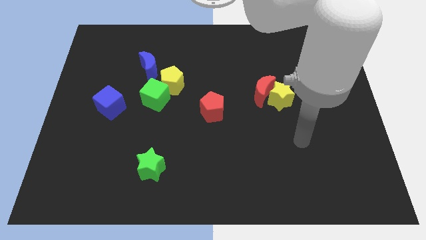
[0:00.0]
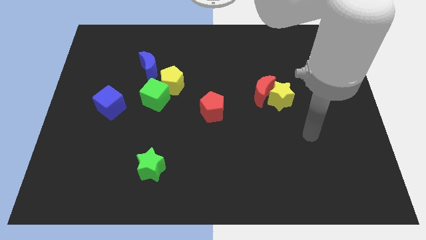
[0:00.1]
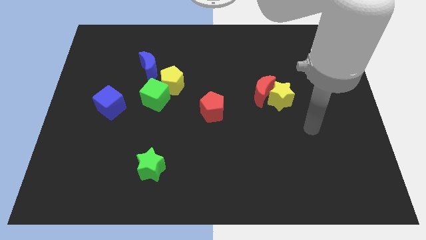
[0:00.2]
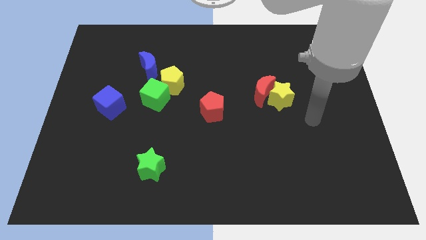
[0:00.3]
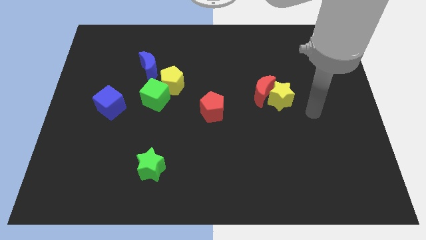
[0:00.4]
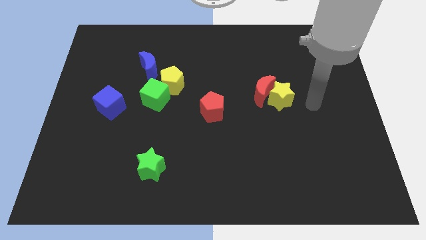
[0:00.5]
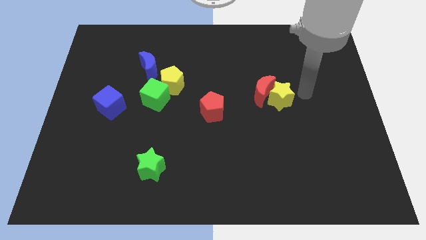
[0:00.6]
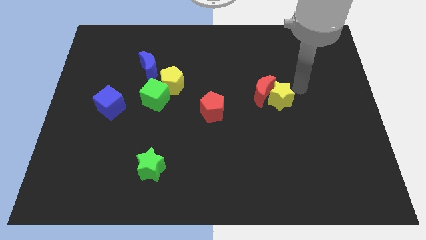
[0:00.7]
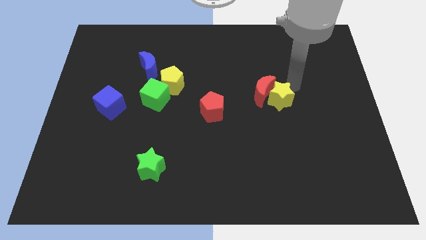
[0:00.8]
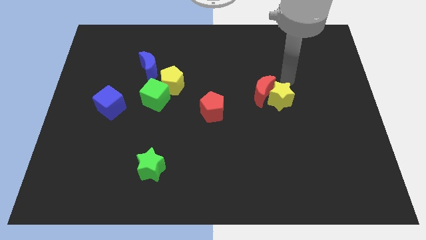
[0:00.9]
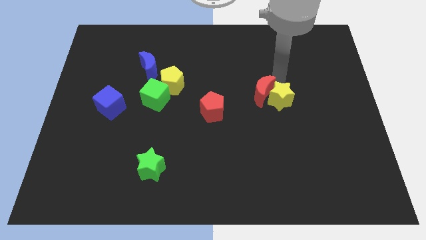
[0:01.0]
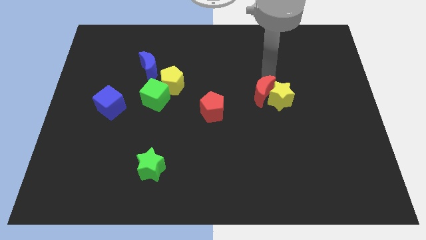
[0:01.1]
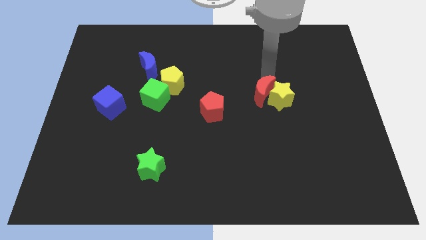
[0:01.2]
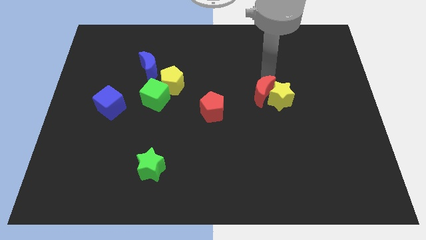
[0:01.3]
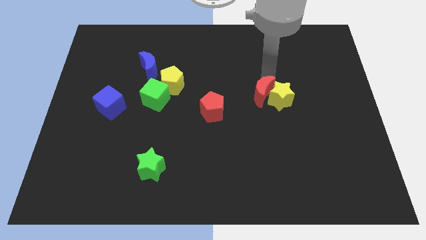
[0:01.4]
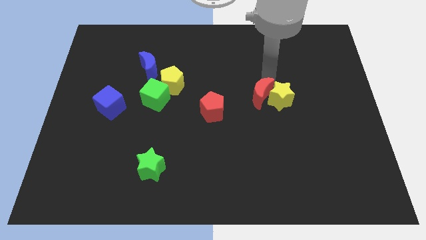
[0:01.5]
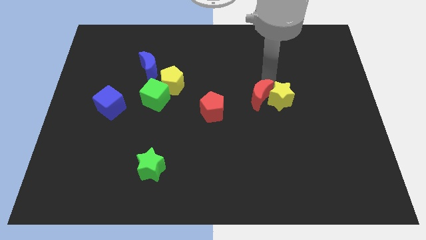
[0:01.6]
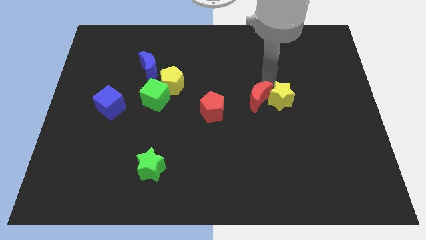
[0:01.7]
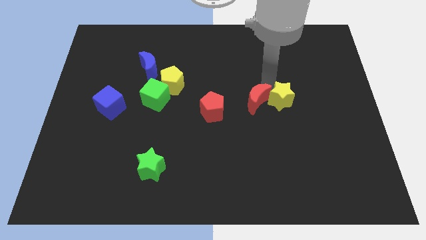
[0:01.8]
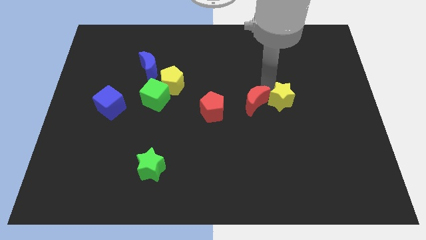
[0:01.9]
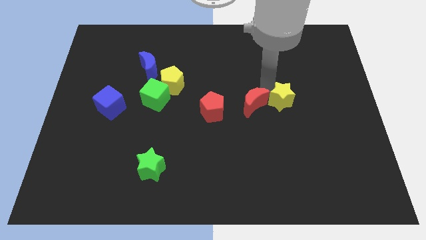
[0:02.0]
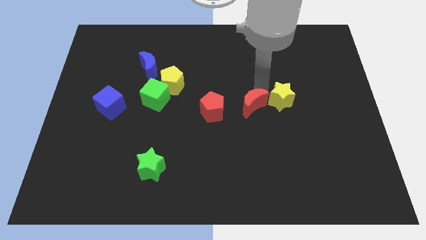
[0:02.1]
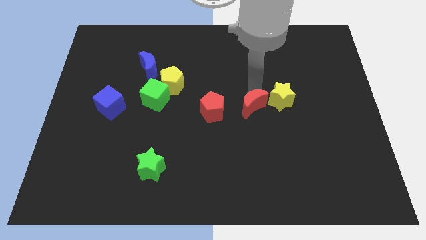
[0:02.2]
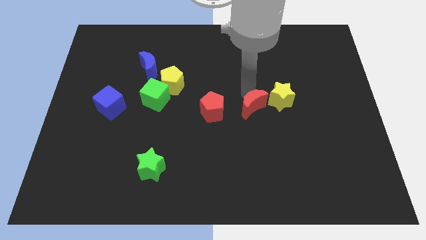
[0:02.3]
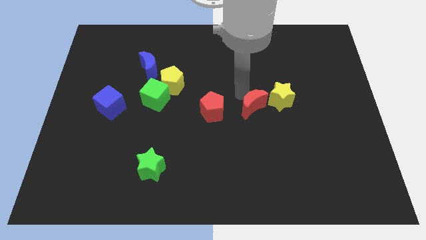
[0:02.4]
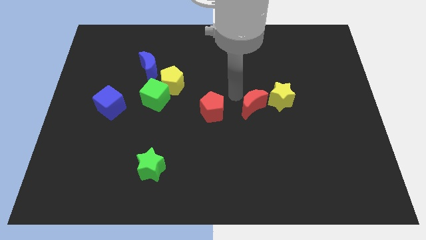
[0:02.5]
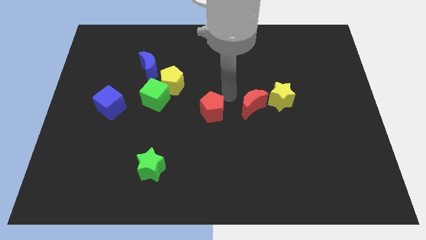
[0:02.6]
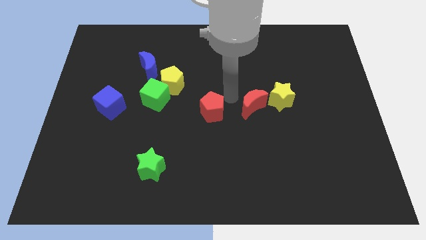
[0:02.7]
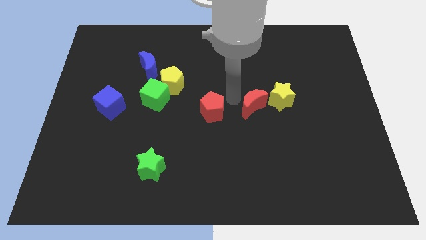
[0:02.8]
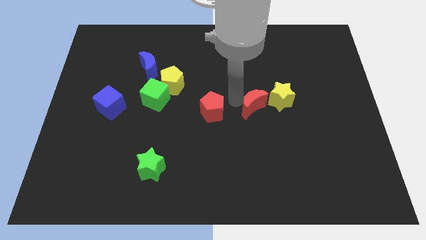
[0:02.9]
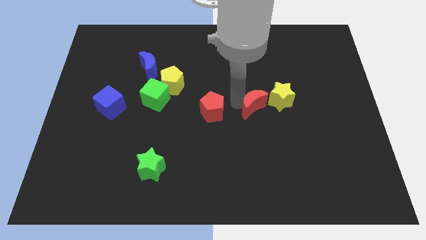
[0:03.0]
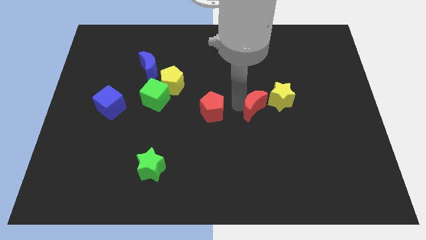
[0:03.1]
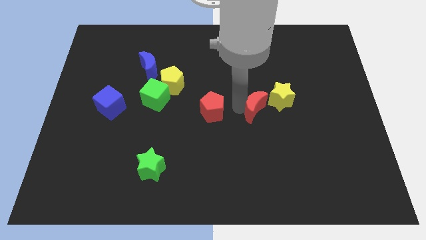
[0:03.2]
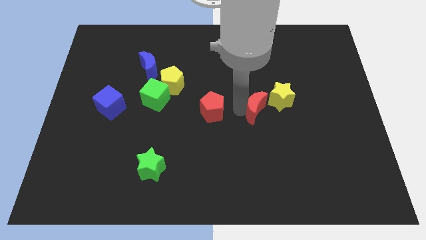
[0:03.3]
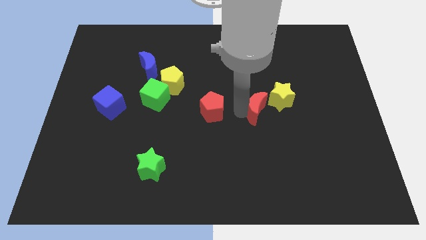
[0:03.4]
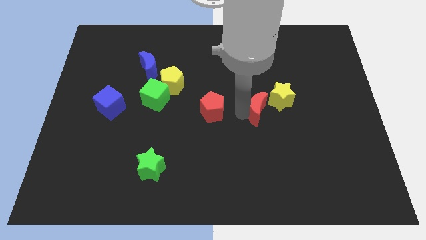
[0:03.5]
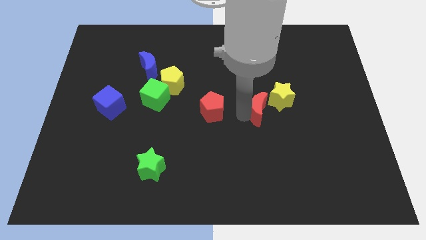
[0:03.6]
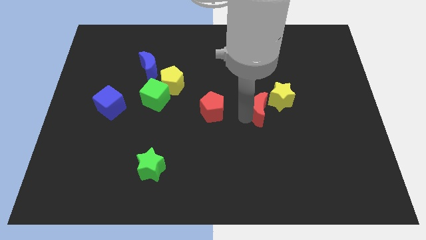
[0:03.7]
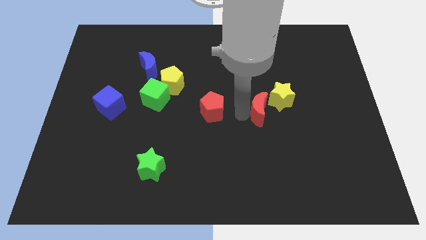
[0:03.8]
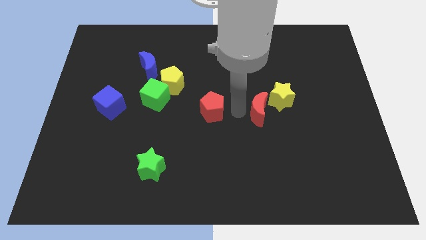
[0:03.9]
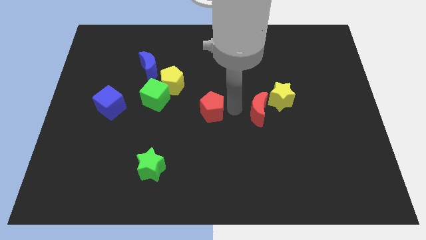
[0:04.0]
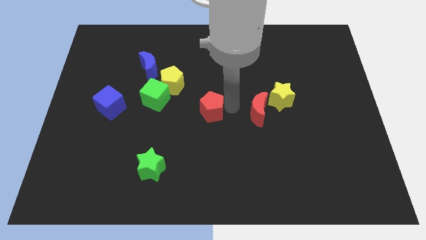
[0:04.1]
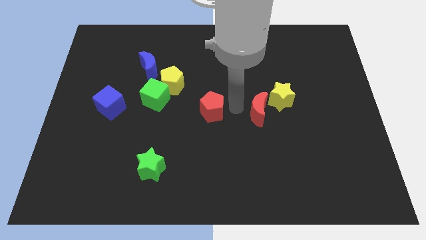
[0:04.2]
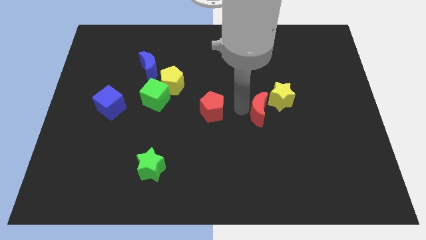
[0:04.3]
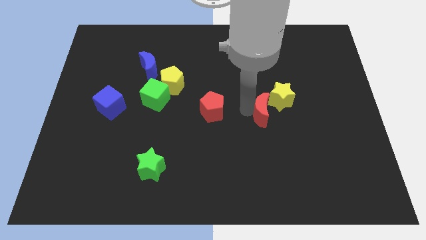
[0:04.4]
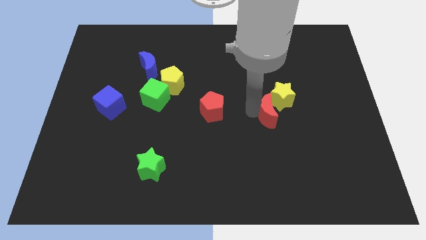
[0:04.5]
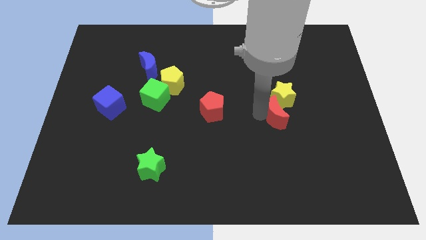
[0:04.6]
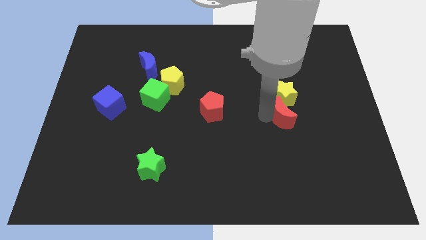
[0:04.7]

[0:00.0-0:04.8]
slightly move the red moon down and then to the right

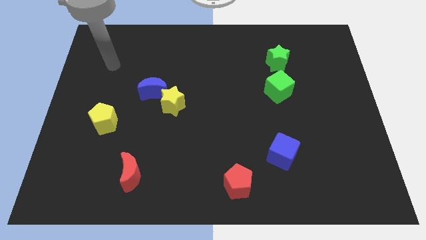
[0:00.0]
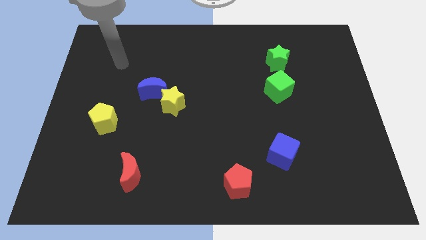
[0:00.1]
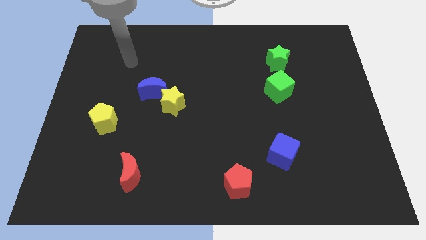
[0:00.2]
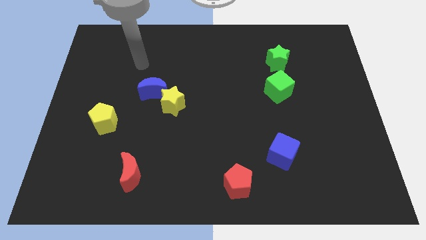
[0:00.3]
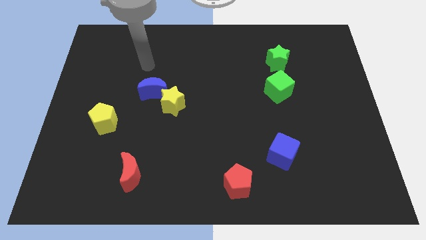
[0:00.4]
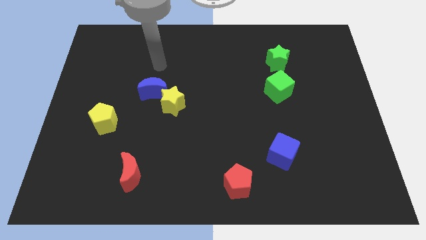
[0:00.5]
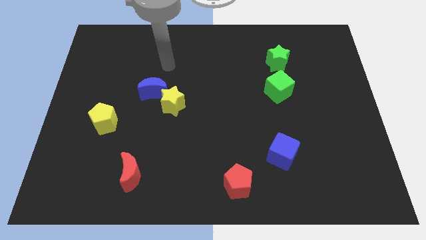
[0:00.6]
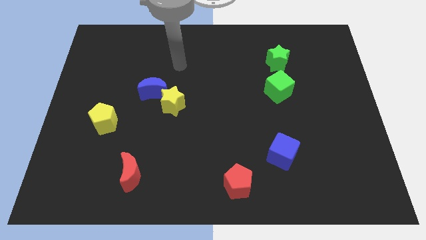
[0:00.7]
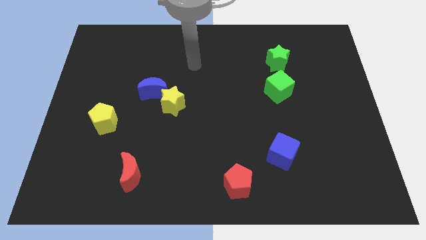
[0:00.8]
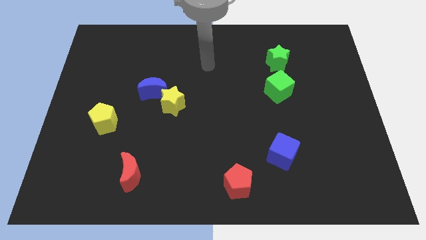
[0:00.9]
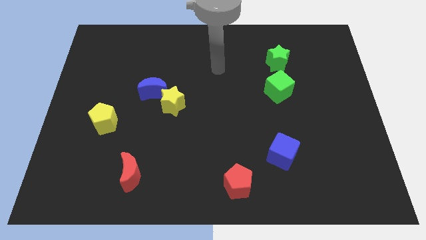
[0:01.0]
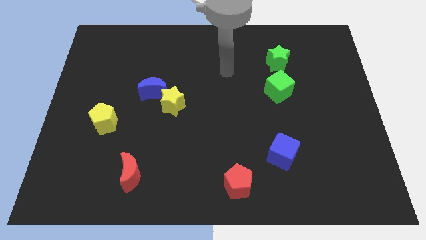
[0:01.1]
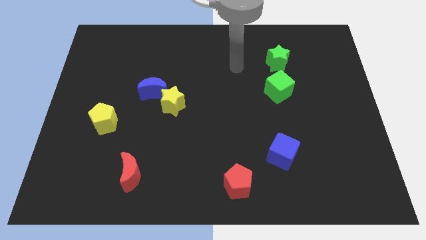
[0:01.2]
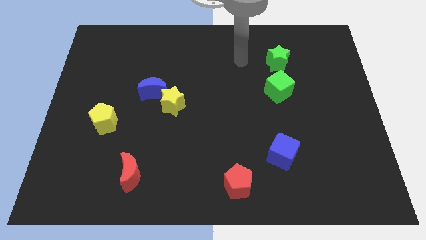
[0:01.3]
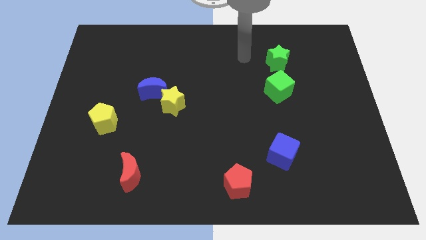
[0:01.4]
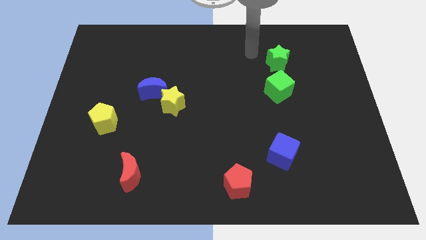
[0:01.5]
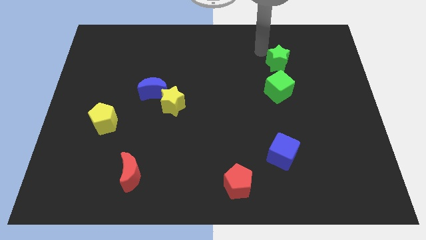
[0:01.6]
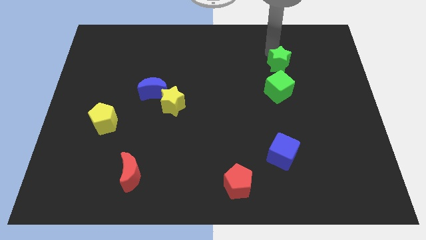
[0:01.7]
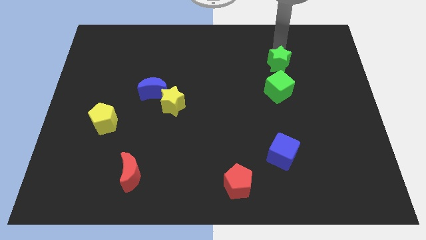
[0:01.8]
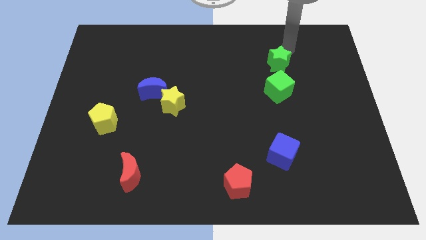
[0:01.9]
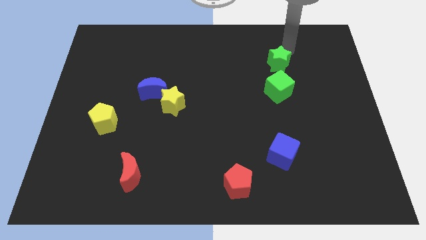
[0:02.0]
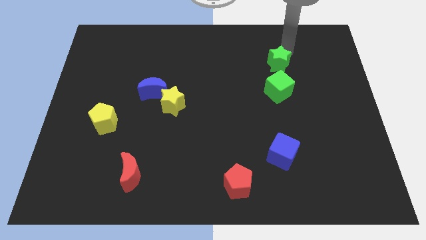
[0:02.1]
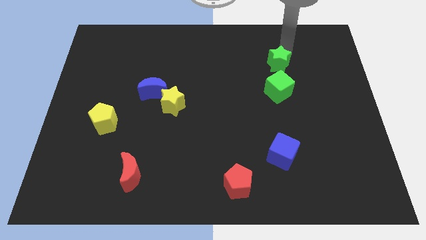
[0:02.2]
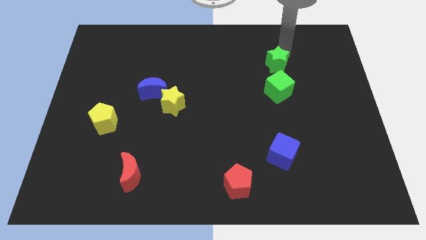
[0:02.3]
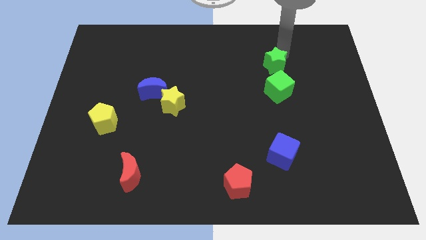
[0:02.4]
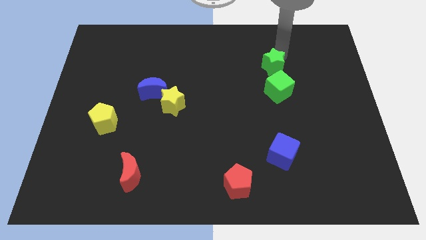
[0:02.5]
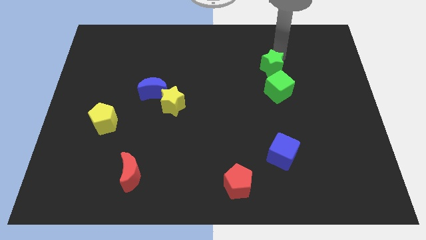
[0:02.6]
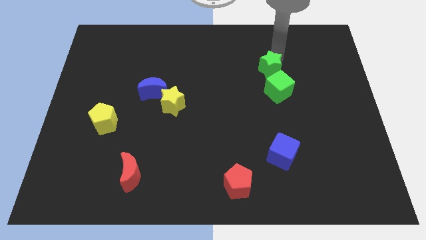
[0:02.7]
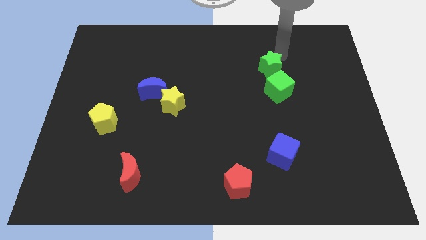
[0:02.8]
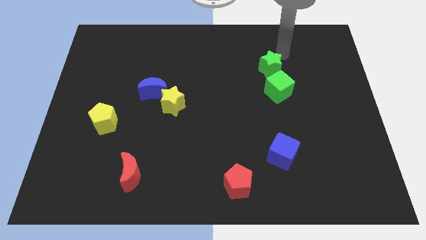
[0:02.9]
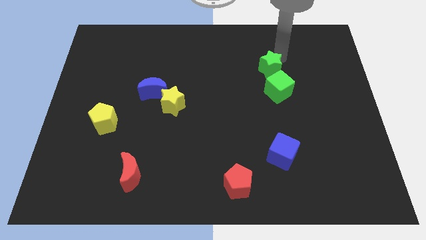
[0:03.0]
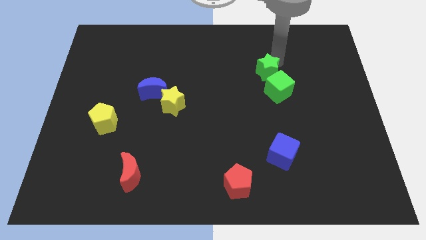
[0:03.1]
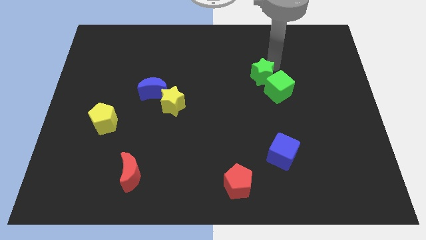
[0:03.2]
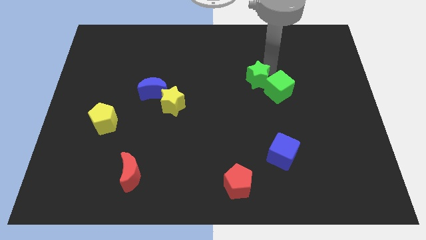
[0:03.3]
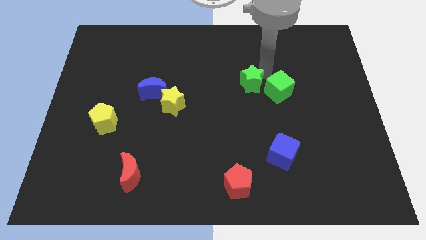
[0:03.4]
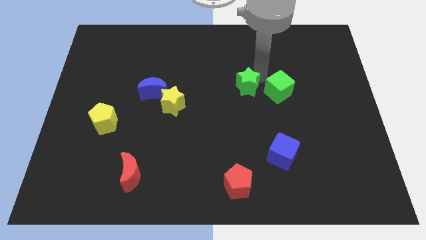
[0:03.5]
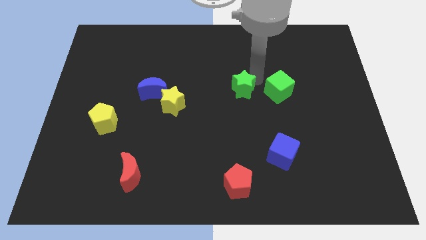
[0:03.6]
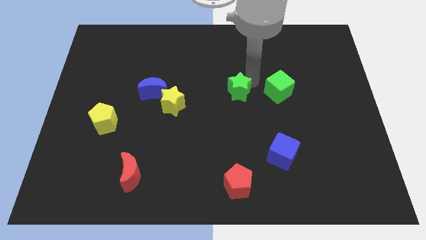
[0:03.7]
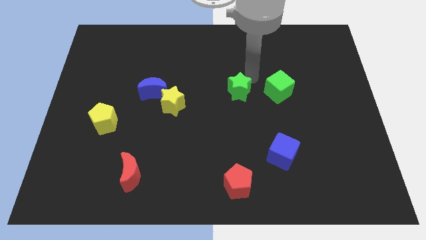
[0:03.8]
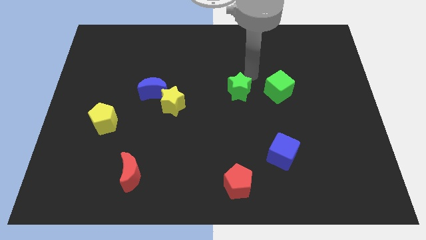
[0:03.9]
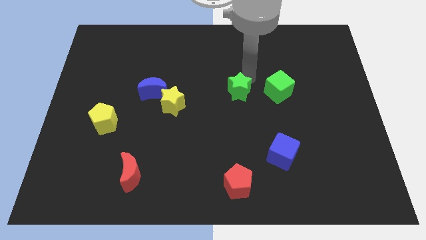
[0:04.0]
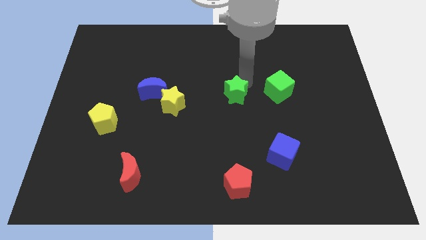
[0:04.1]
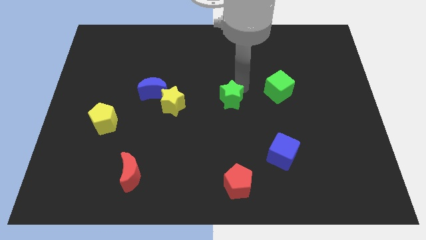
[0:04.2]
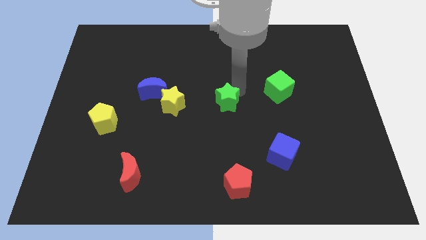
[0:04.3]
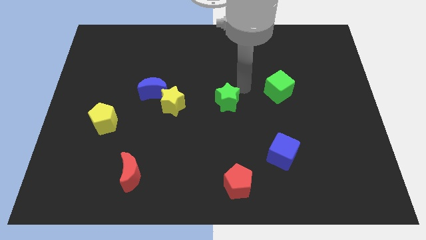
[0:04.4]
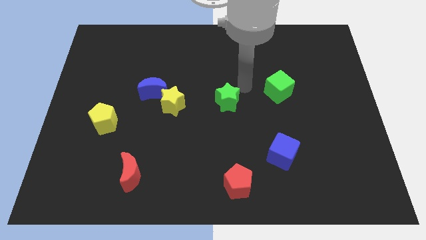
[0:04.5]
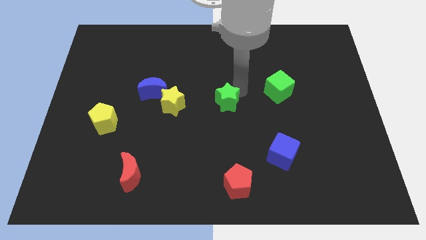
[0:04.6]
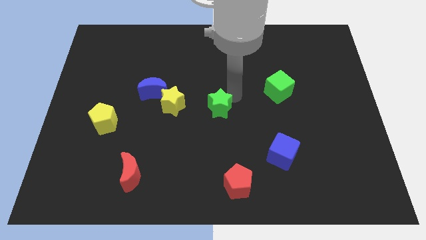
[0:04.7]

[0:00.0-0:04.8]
push the green star downwards and to the left diagonally
